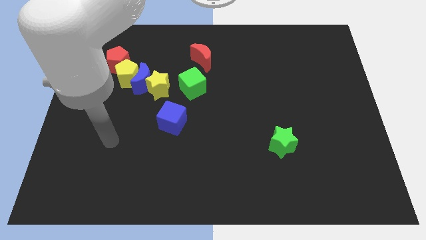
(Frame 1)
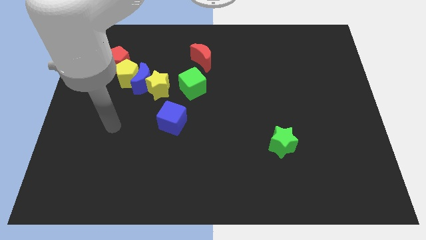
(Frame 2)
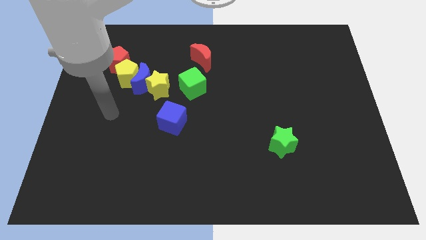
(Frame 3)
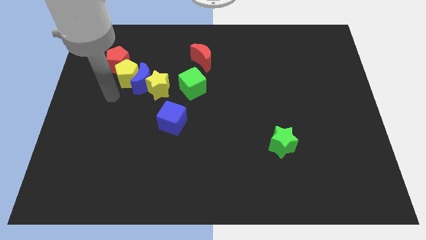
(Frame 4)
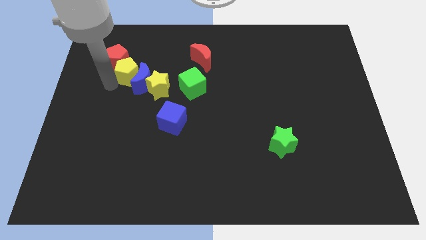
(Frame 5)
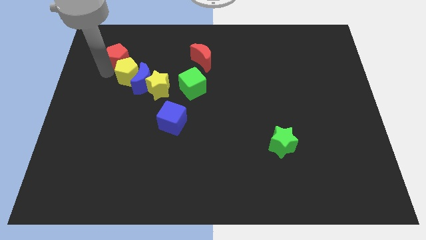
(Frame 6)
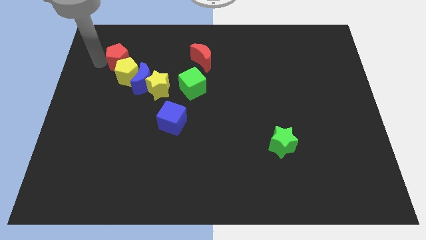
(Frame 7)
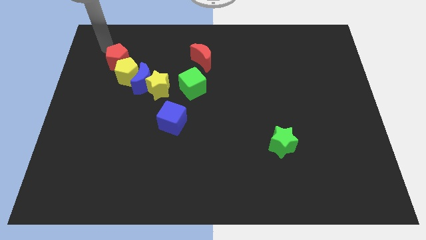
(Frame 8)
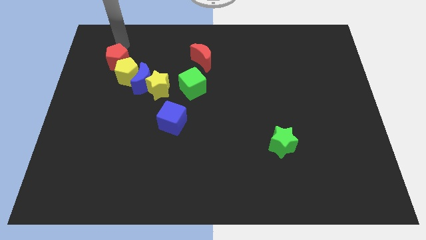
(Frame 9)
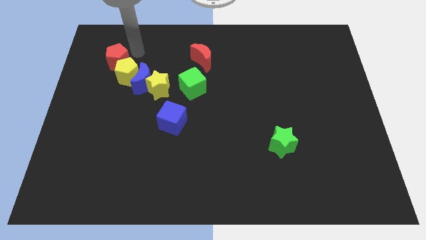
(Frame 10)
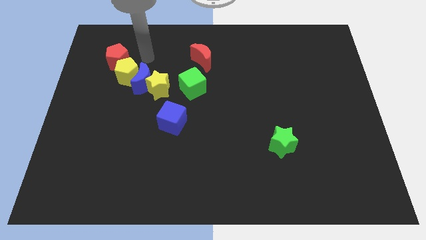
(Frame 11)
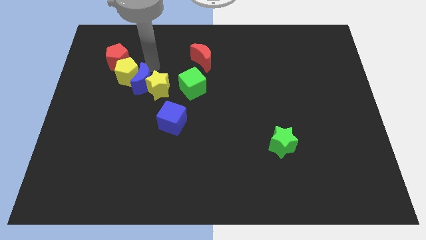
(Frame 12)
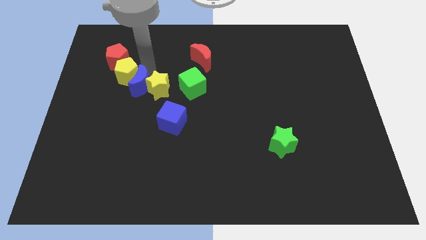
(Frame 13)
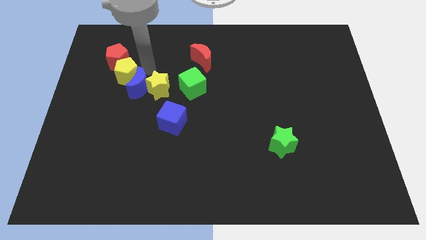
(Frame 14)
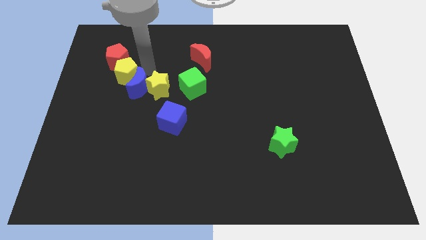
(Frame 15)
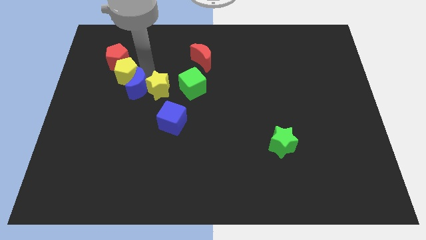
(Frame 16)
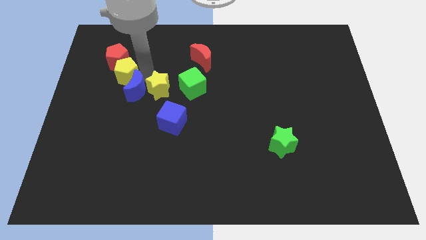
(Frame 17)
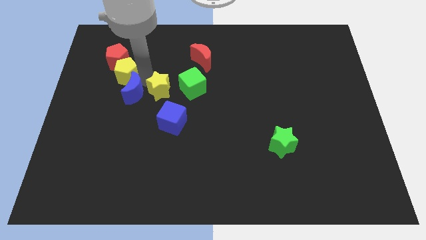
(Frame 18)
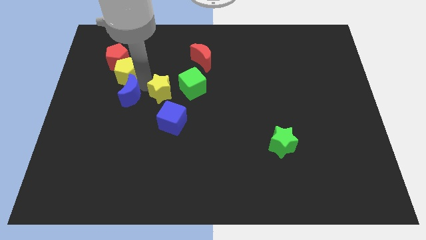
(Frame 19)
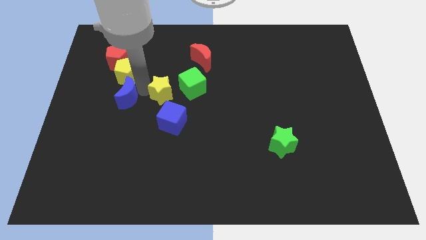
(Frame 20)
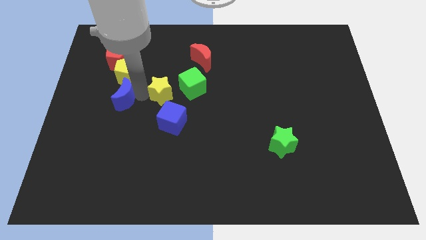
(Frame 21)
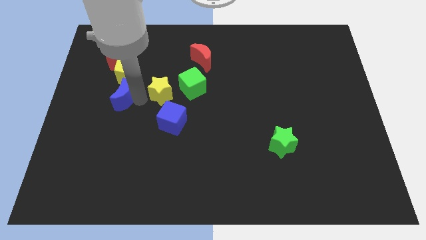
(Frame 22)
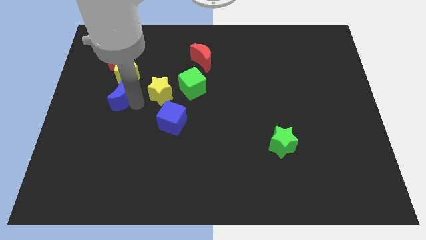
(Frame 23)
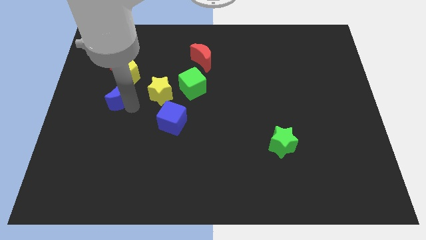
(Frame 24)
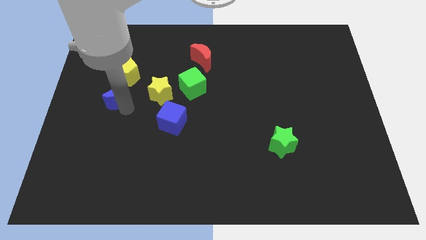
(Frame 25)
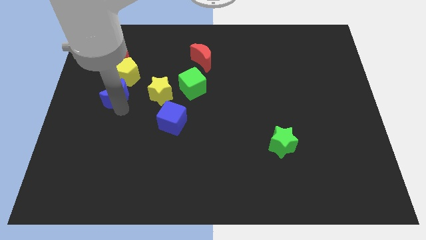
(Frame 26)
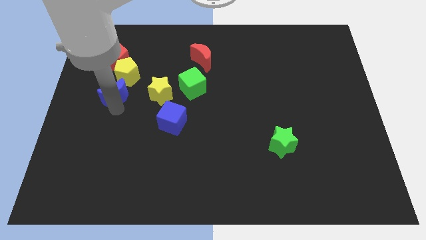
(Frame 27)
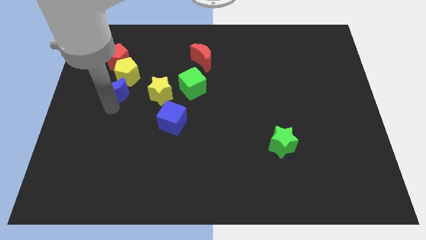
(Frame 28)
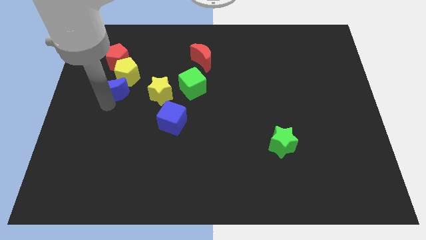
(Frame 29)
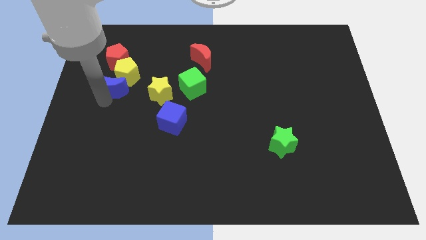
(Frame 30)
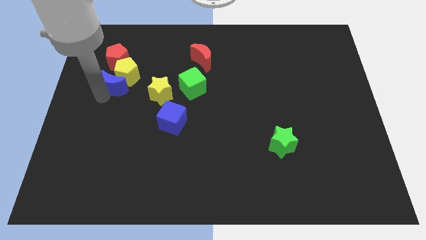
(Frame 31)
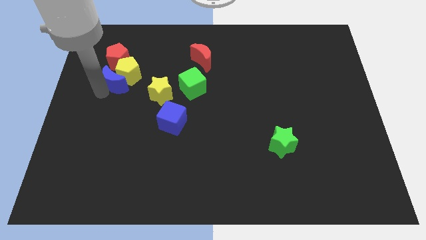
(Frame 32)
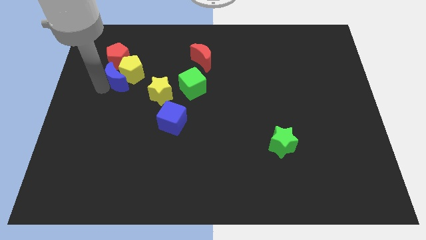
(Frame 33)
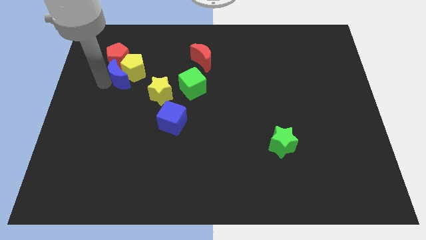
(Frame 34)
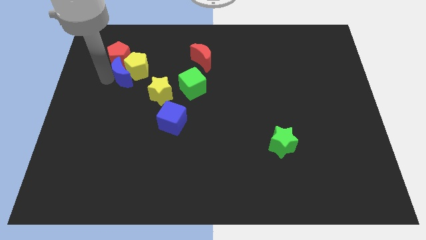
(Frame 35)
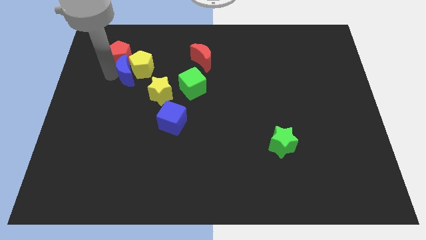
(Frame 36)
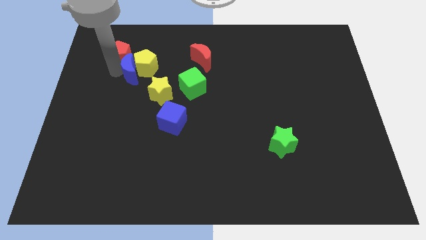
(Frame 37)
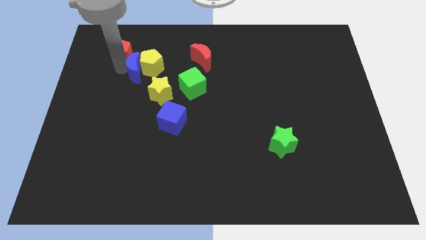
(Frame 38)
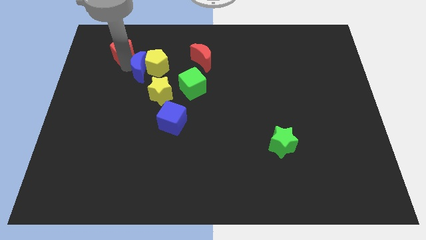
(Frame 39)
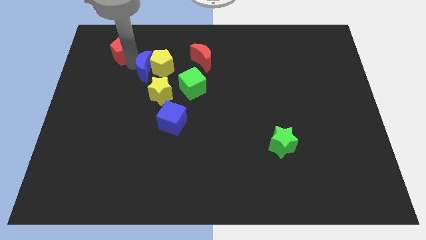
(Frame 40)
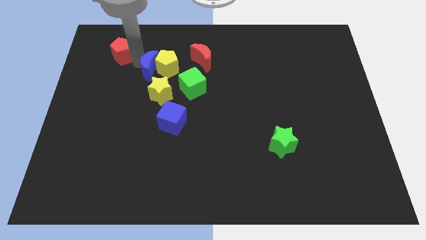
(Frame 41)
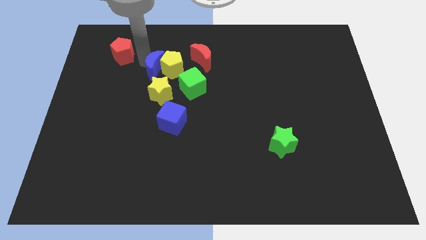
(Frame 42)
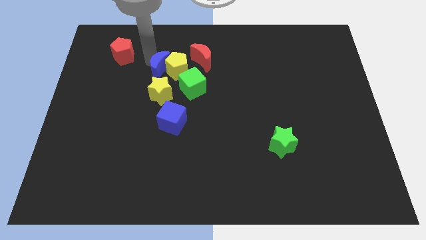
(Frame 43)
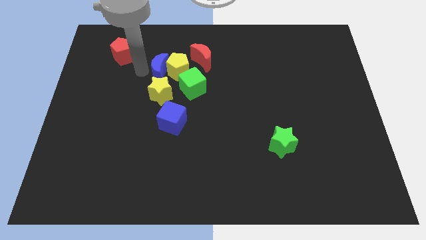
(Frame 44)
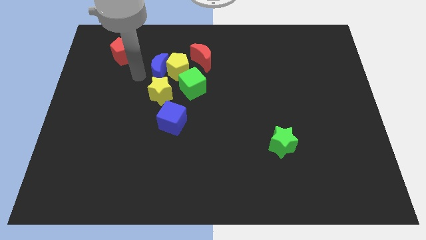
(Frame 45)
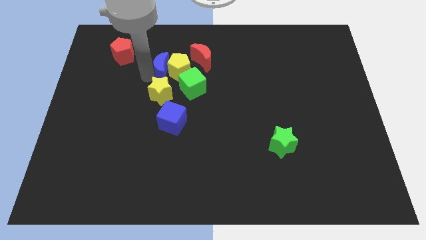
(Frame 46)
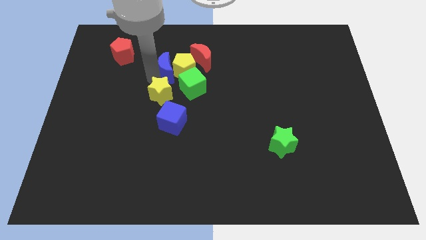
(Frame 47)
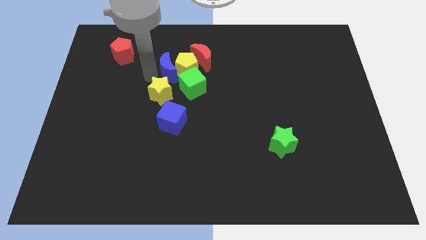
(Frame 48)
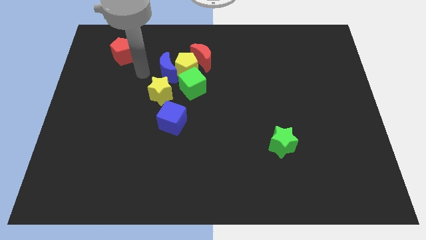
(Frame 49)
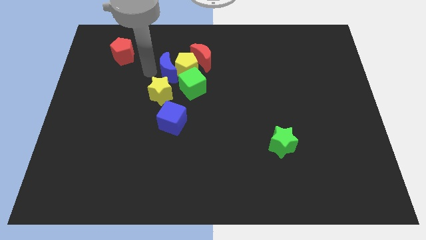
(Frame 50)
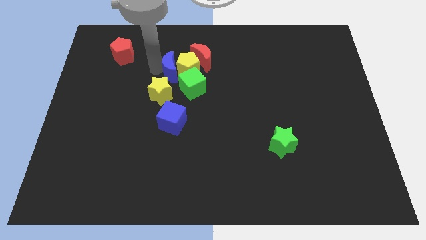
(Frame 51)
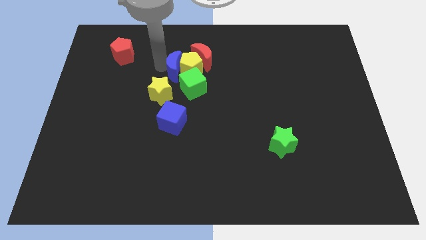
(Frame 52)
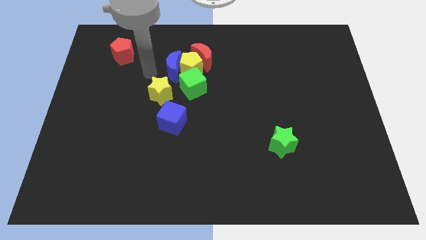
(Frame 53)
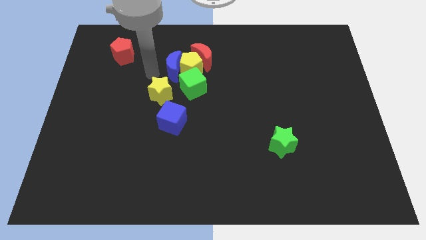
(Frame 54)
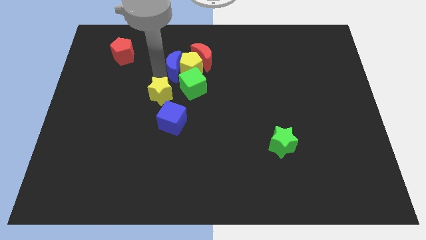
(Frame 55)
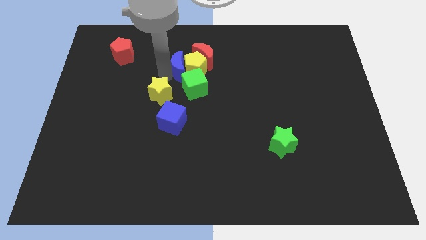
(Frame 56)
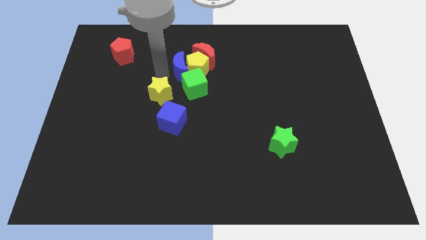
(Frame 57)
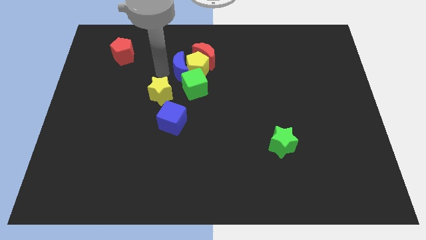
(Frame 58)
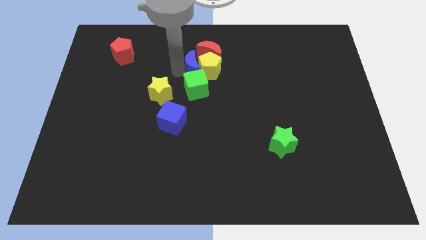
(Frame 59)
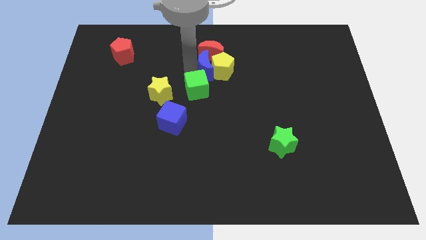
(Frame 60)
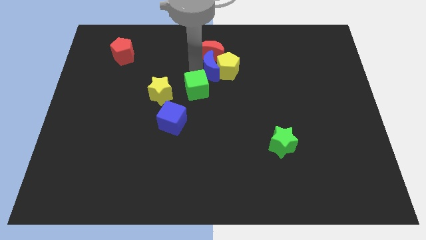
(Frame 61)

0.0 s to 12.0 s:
pull the blue moon apart from the clump

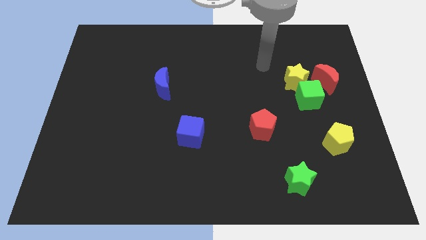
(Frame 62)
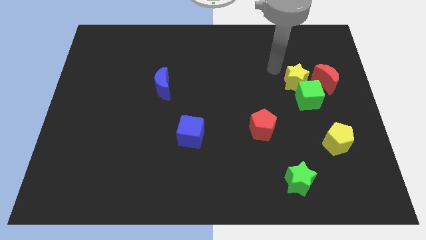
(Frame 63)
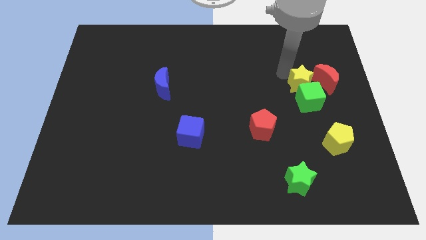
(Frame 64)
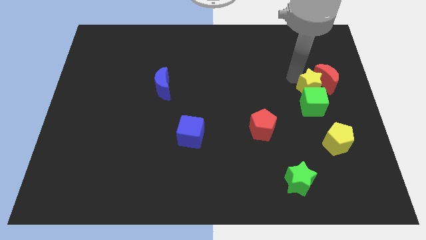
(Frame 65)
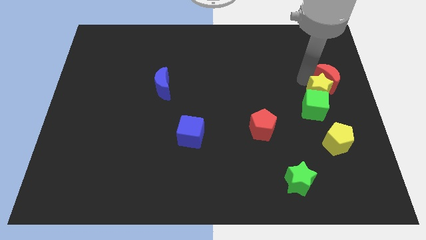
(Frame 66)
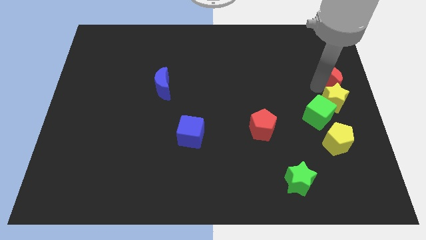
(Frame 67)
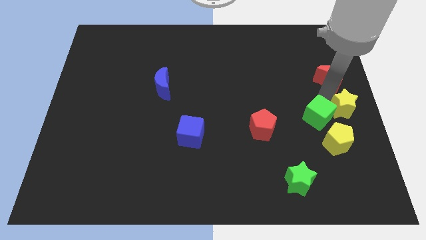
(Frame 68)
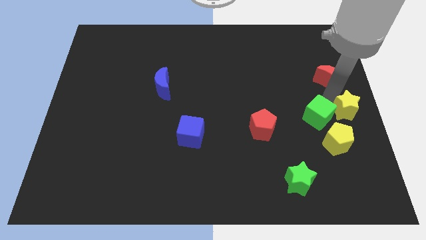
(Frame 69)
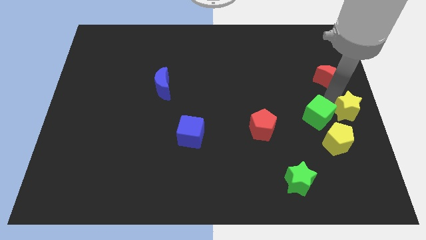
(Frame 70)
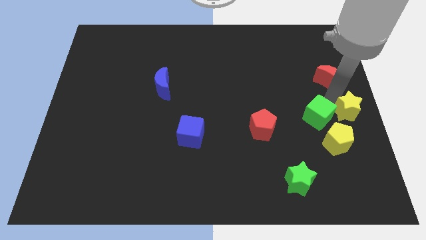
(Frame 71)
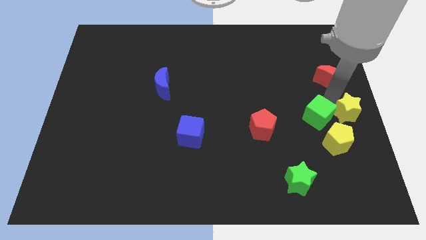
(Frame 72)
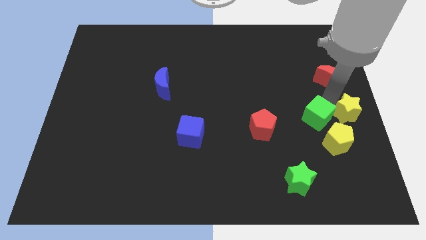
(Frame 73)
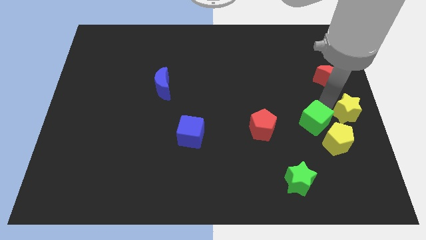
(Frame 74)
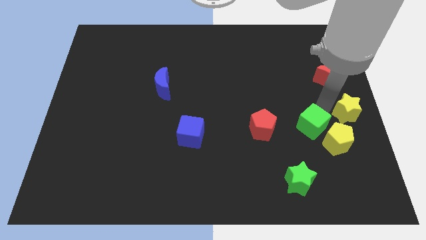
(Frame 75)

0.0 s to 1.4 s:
pull the green cube apart from the yellow star and red moon

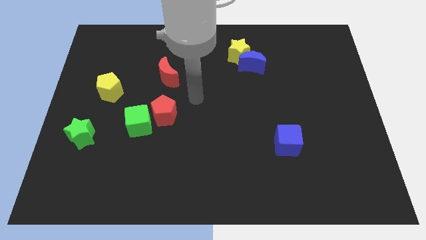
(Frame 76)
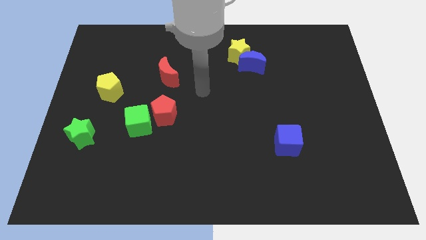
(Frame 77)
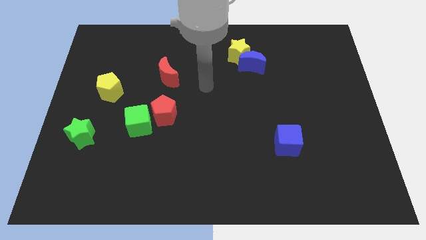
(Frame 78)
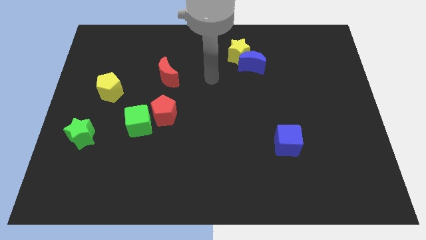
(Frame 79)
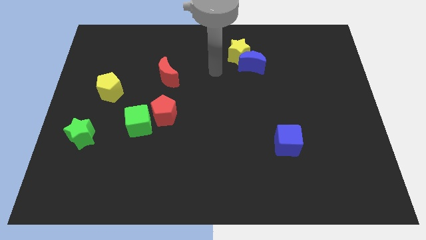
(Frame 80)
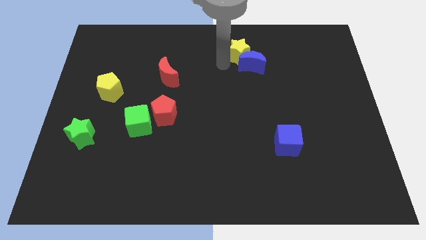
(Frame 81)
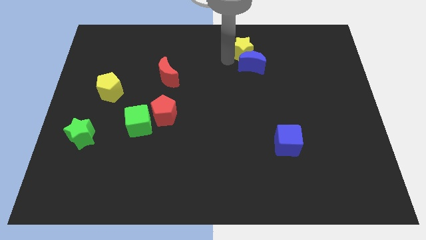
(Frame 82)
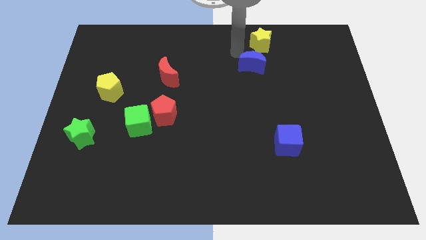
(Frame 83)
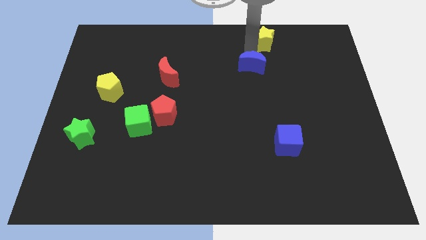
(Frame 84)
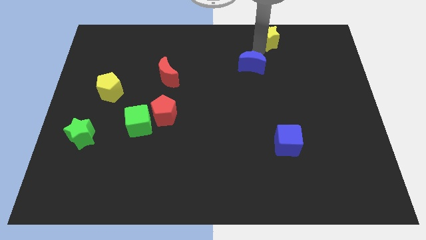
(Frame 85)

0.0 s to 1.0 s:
pull the blue moon apart from the yellow star

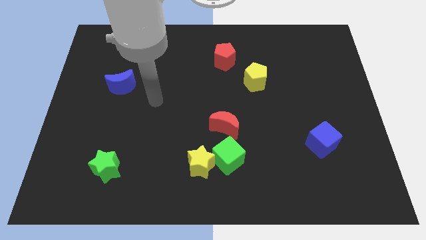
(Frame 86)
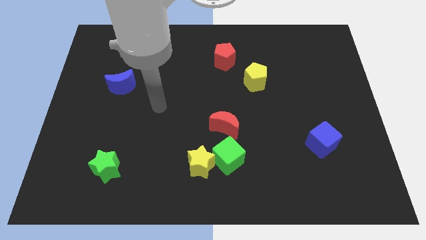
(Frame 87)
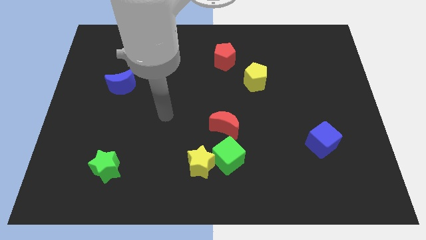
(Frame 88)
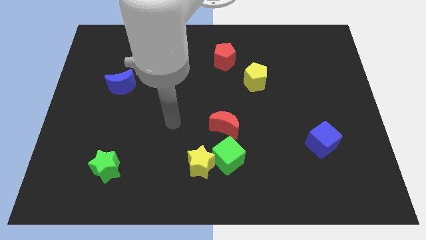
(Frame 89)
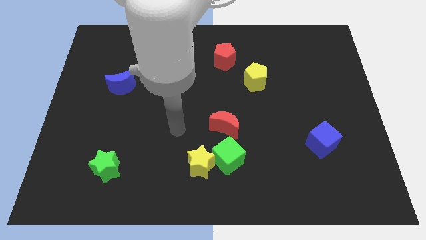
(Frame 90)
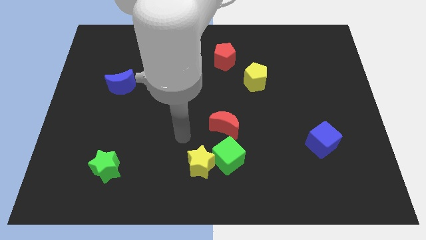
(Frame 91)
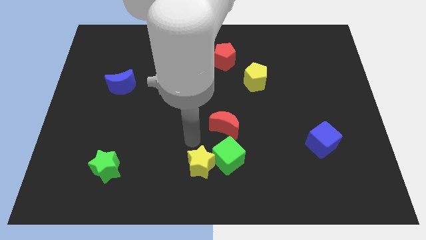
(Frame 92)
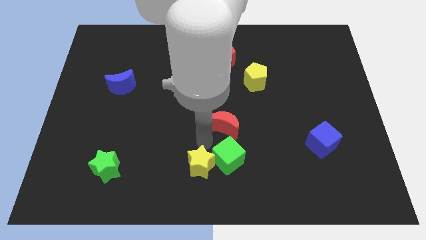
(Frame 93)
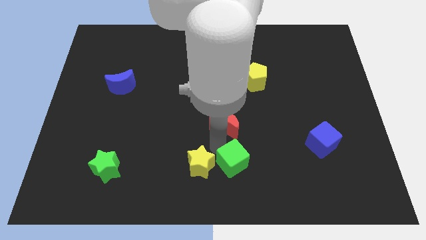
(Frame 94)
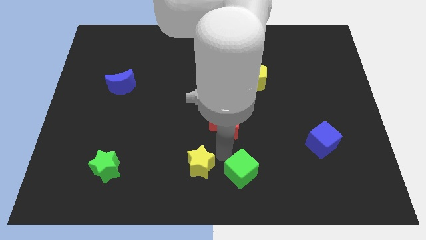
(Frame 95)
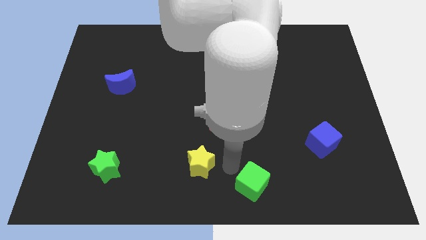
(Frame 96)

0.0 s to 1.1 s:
move the yellow star away from the green cube
